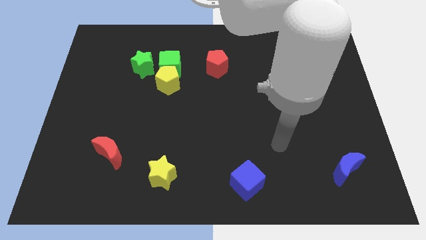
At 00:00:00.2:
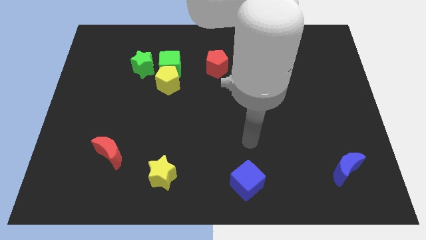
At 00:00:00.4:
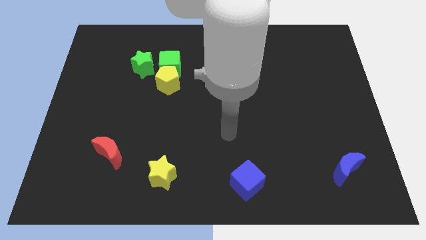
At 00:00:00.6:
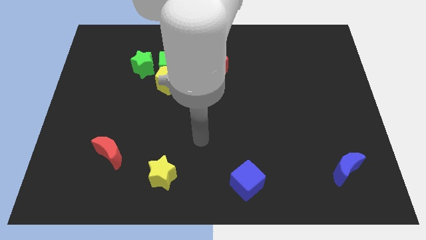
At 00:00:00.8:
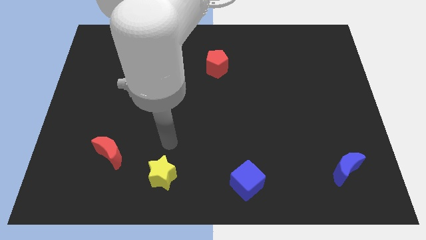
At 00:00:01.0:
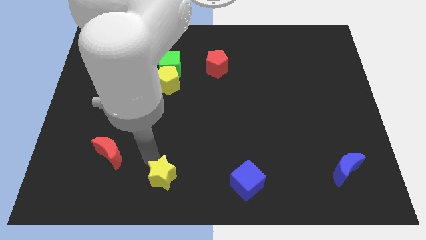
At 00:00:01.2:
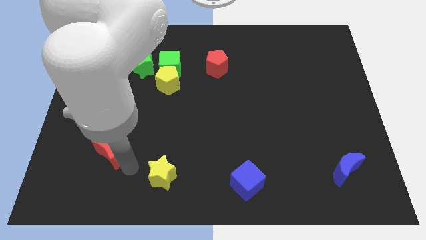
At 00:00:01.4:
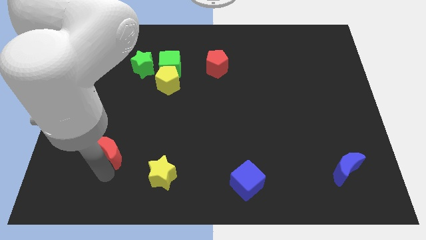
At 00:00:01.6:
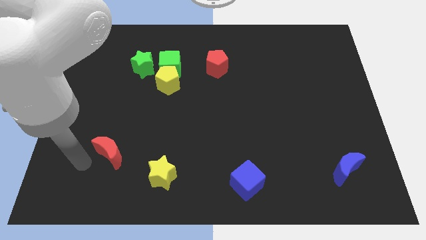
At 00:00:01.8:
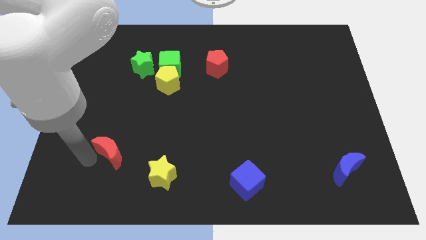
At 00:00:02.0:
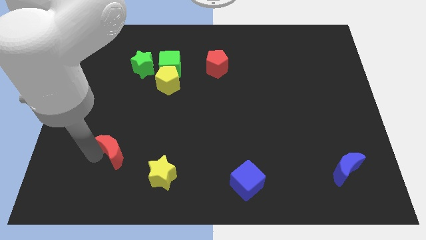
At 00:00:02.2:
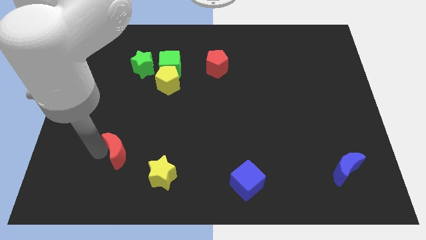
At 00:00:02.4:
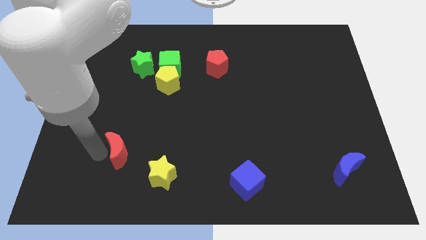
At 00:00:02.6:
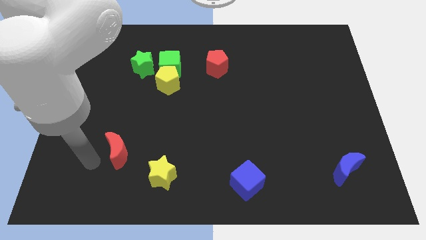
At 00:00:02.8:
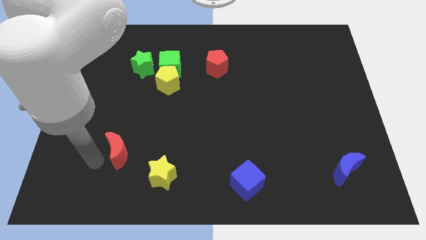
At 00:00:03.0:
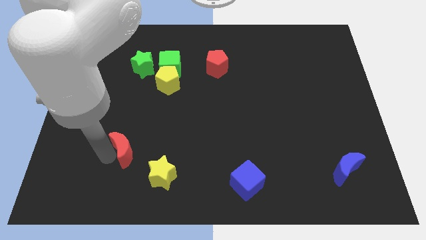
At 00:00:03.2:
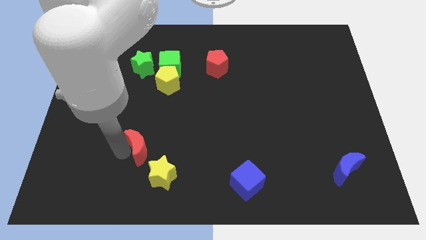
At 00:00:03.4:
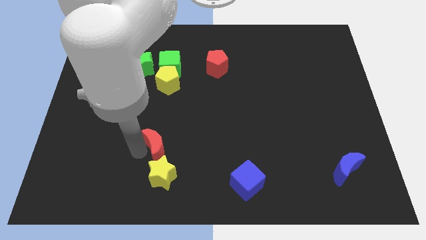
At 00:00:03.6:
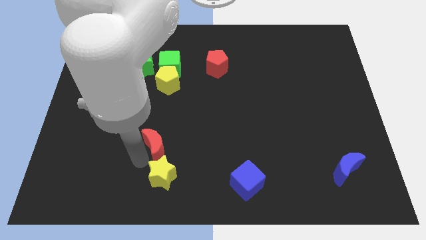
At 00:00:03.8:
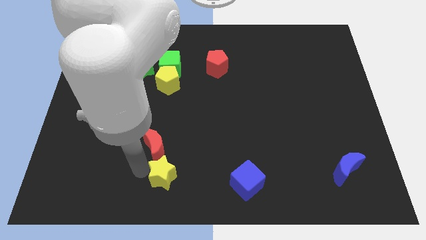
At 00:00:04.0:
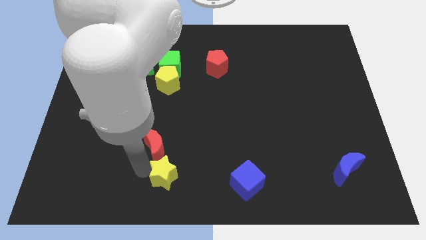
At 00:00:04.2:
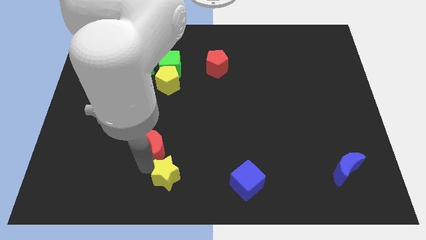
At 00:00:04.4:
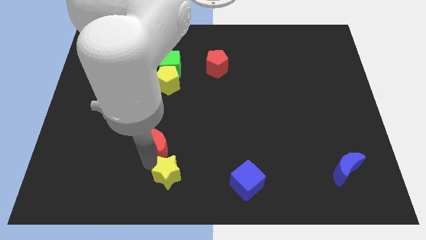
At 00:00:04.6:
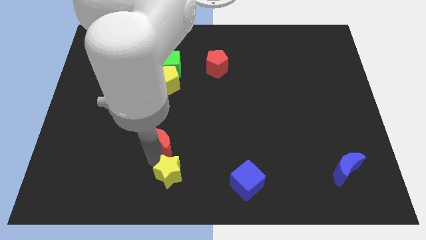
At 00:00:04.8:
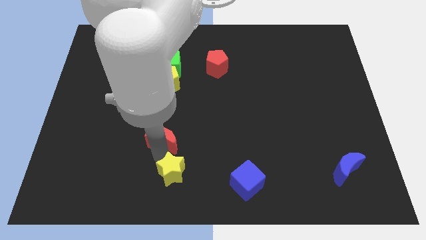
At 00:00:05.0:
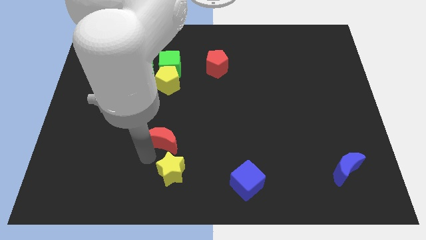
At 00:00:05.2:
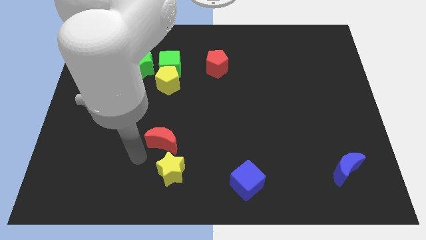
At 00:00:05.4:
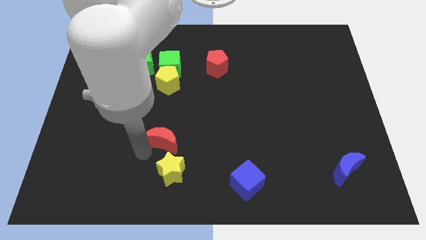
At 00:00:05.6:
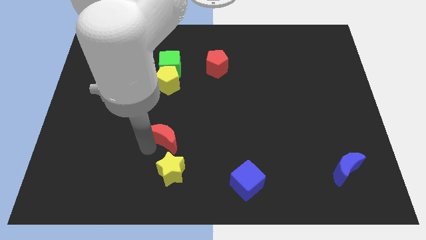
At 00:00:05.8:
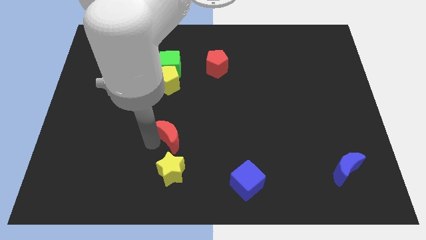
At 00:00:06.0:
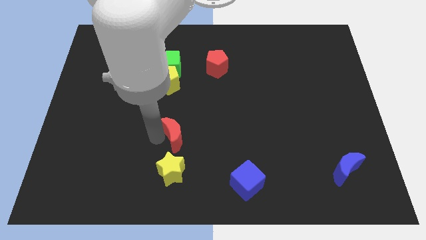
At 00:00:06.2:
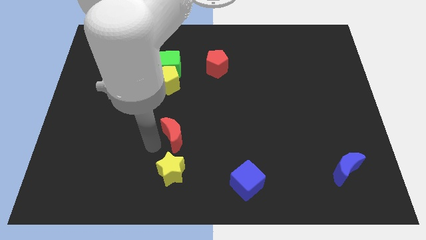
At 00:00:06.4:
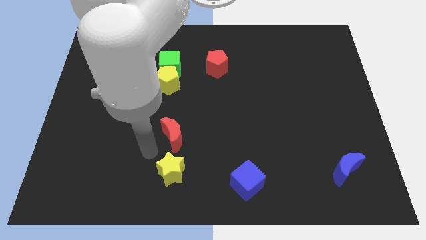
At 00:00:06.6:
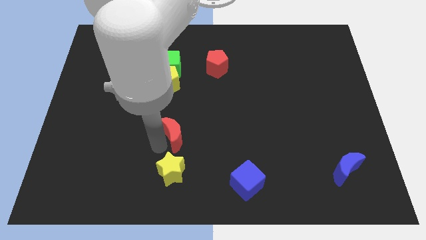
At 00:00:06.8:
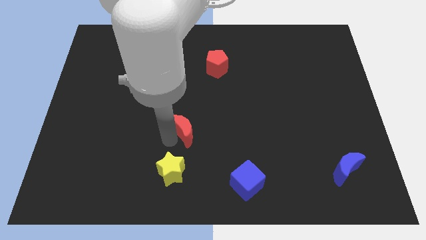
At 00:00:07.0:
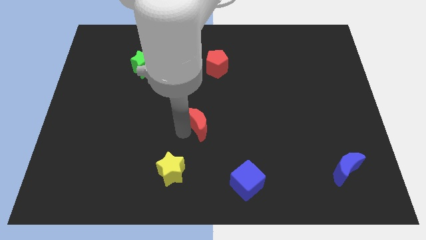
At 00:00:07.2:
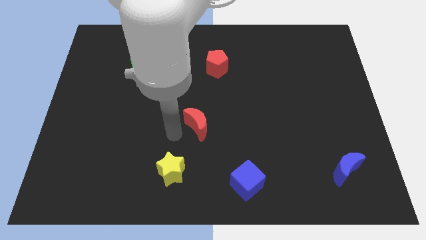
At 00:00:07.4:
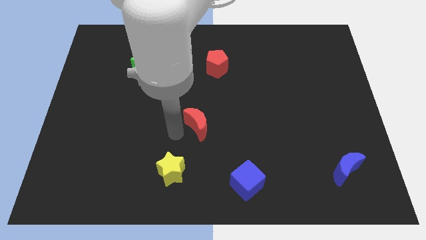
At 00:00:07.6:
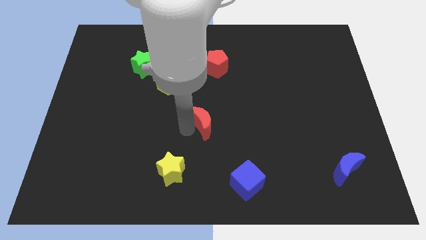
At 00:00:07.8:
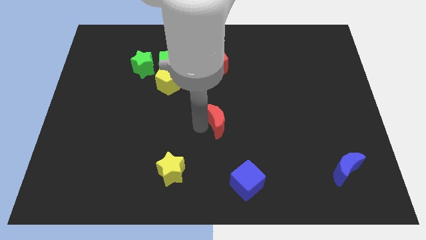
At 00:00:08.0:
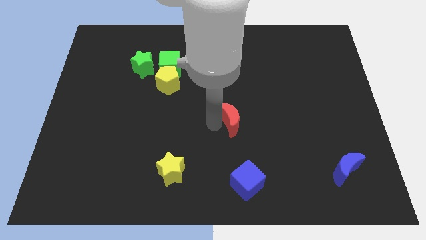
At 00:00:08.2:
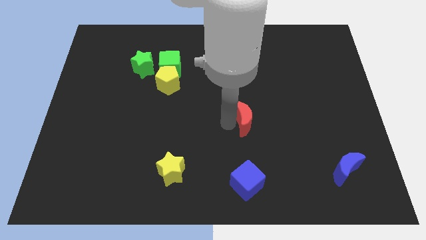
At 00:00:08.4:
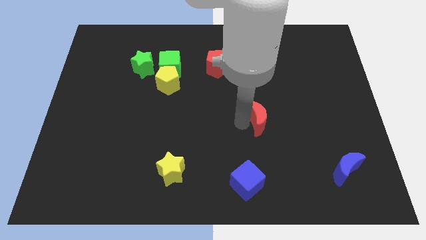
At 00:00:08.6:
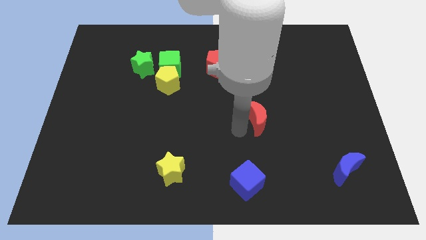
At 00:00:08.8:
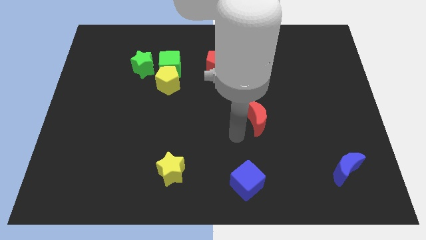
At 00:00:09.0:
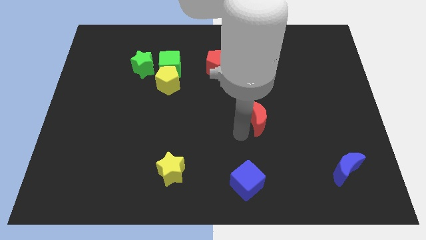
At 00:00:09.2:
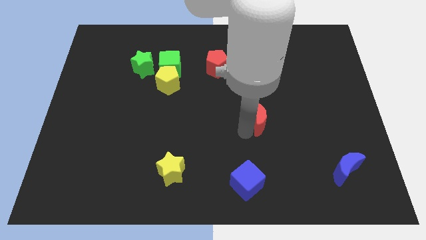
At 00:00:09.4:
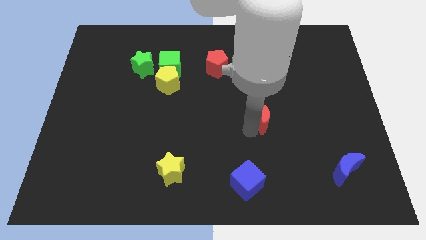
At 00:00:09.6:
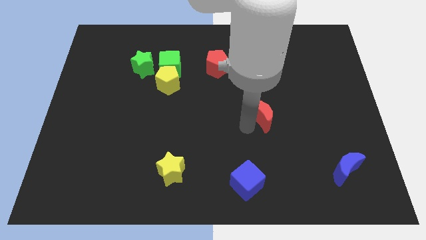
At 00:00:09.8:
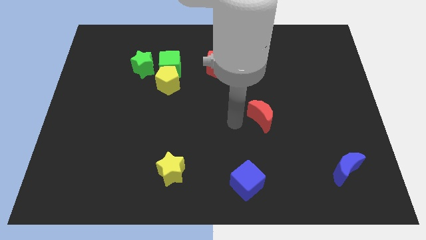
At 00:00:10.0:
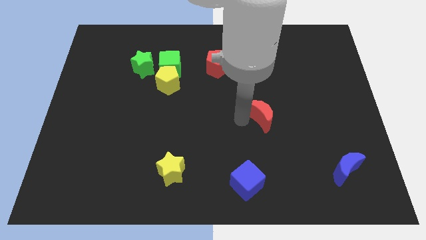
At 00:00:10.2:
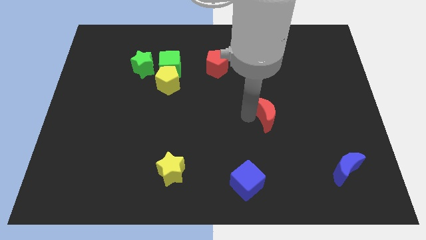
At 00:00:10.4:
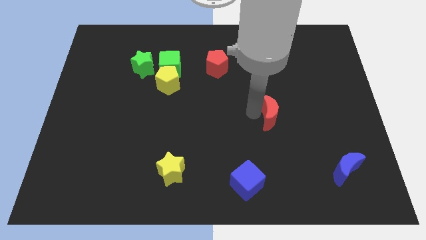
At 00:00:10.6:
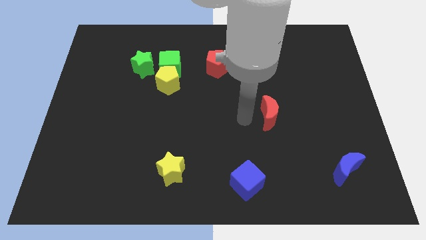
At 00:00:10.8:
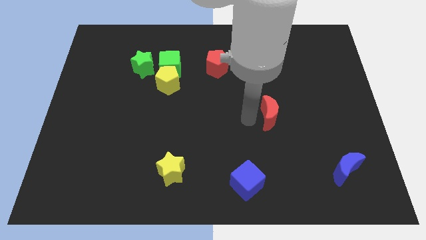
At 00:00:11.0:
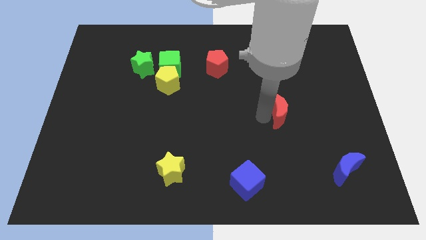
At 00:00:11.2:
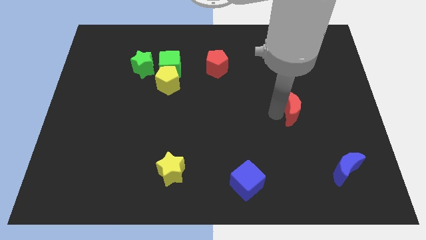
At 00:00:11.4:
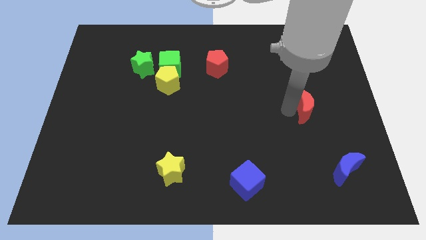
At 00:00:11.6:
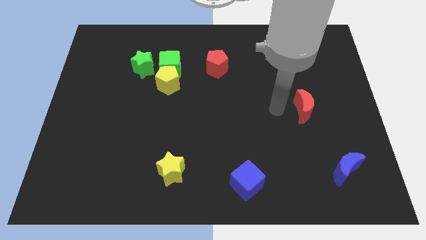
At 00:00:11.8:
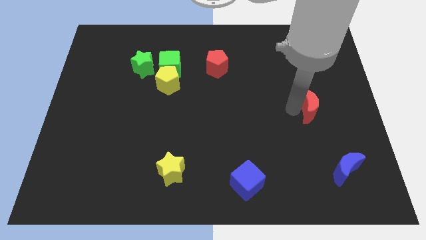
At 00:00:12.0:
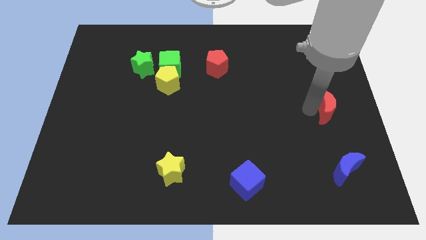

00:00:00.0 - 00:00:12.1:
slide the red moon to the right side

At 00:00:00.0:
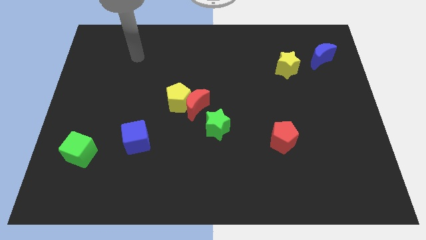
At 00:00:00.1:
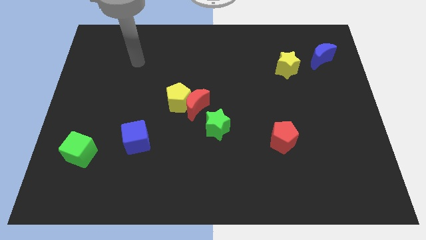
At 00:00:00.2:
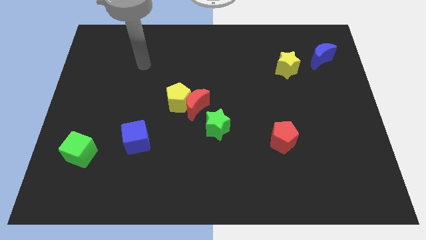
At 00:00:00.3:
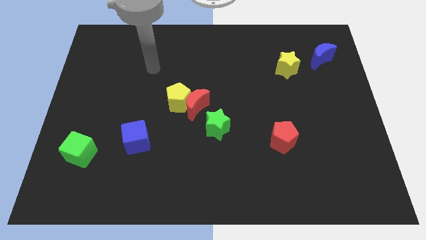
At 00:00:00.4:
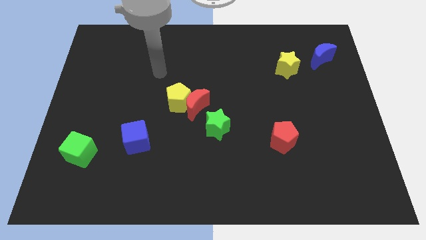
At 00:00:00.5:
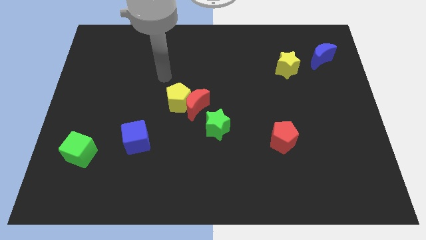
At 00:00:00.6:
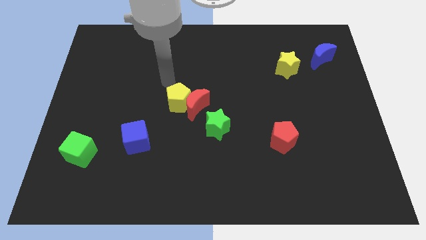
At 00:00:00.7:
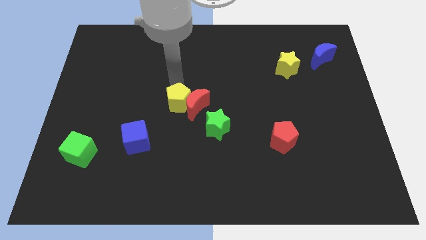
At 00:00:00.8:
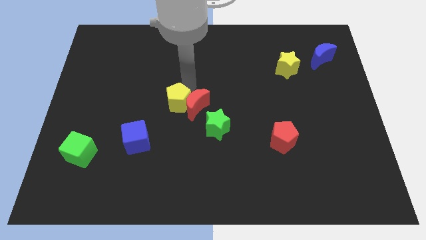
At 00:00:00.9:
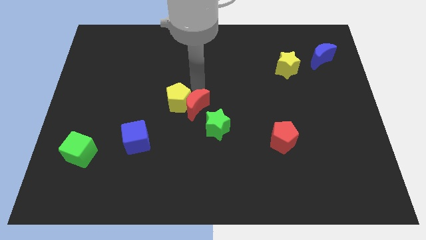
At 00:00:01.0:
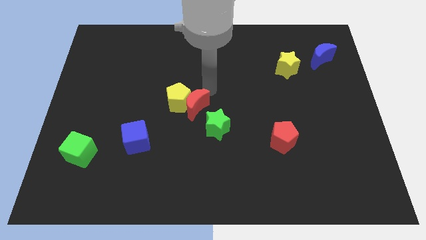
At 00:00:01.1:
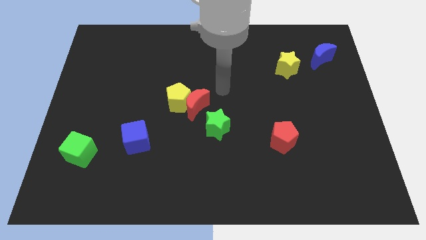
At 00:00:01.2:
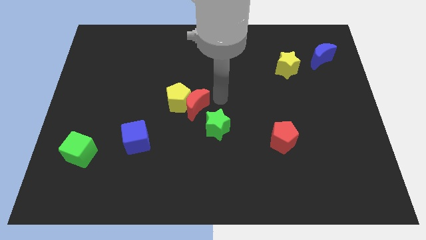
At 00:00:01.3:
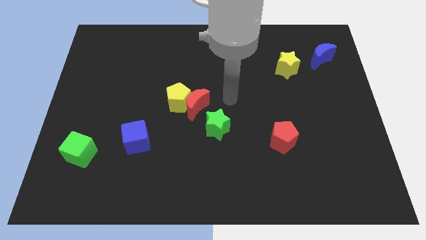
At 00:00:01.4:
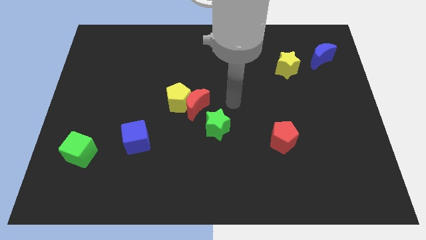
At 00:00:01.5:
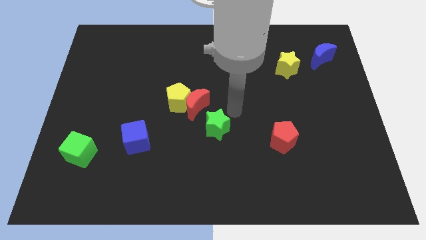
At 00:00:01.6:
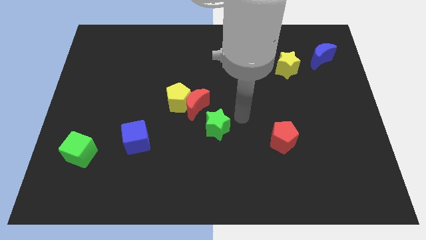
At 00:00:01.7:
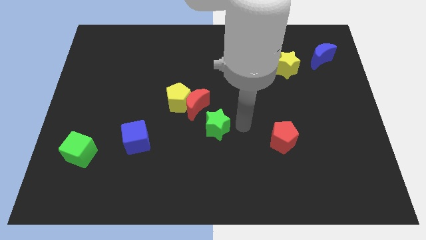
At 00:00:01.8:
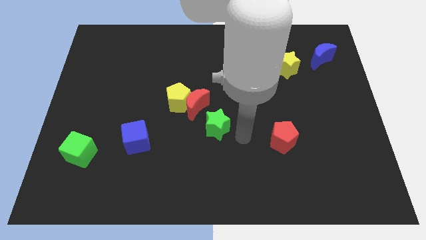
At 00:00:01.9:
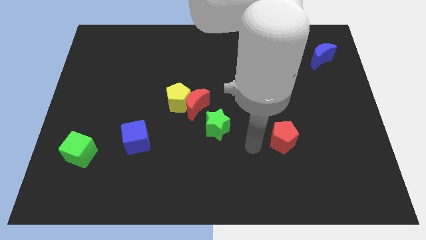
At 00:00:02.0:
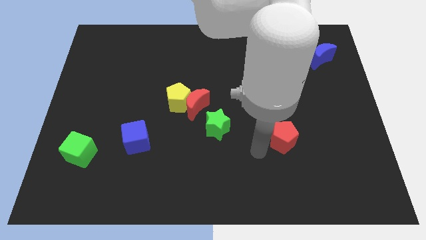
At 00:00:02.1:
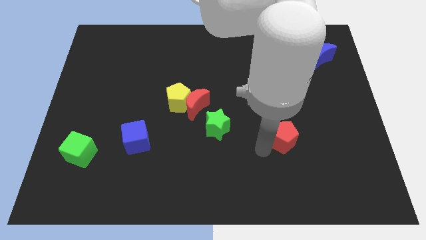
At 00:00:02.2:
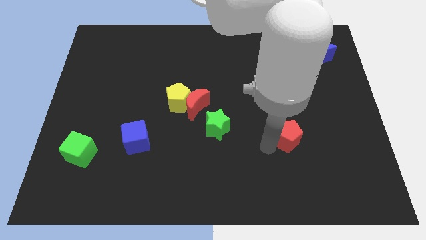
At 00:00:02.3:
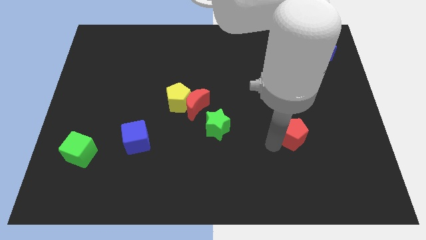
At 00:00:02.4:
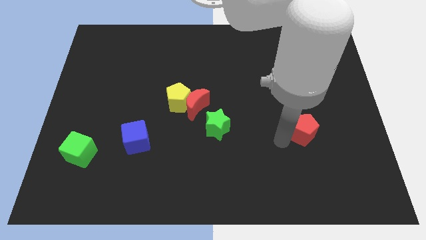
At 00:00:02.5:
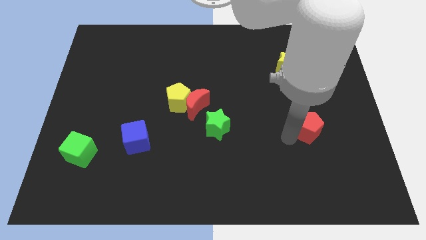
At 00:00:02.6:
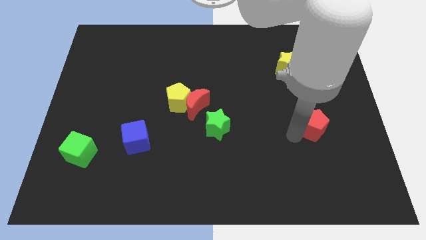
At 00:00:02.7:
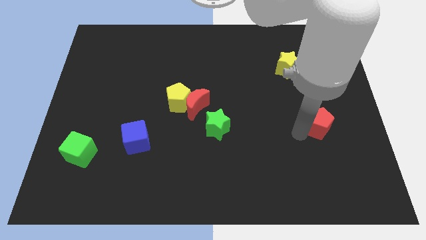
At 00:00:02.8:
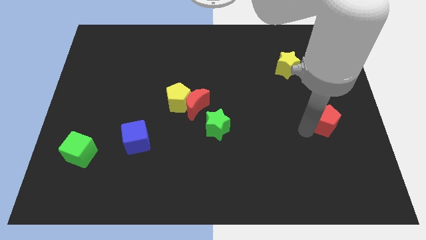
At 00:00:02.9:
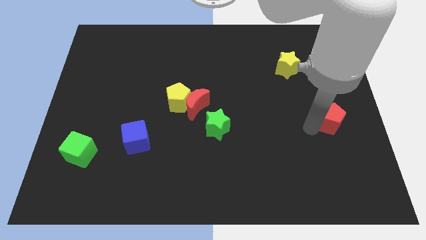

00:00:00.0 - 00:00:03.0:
move the red pentagon to the right side of the board
